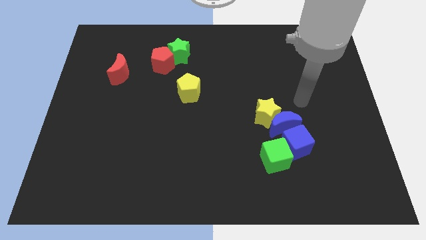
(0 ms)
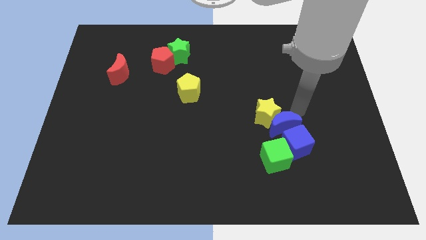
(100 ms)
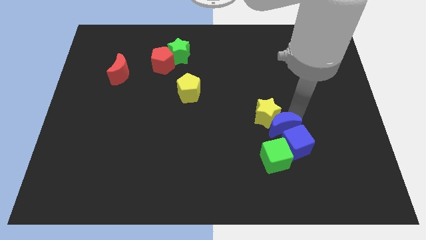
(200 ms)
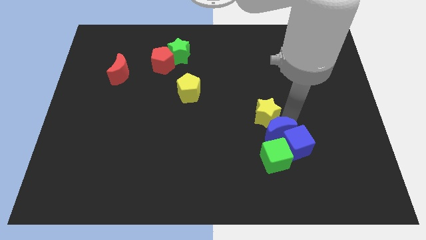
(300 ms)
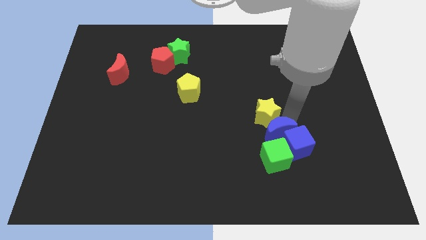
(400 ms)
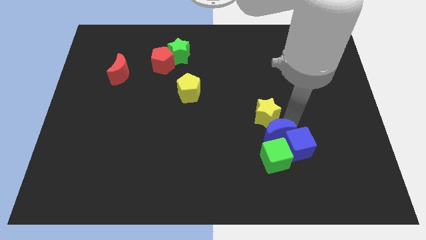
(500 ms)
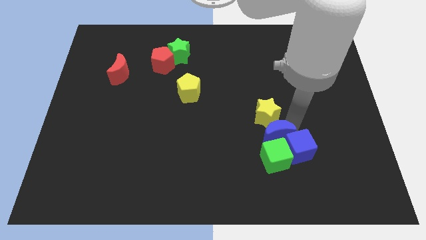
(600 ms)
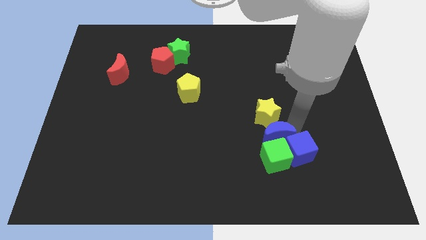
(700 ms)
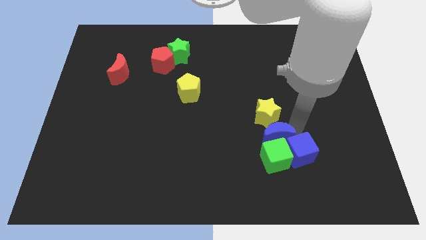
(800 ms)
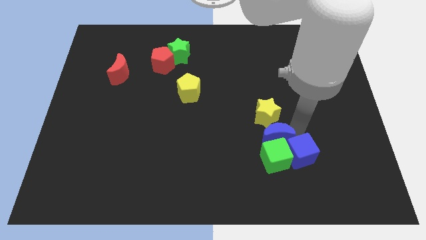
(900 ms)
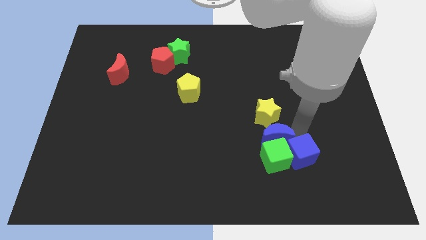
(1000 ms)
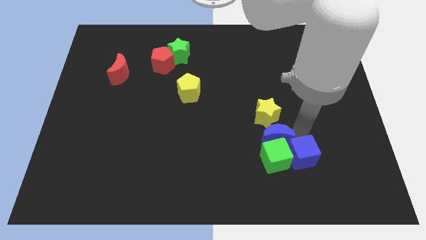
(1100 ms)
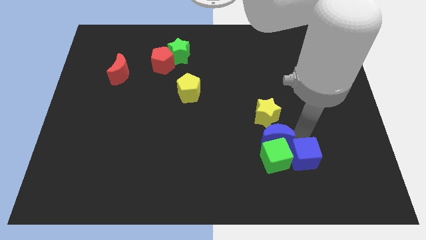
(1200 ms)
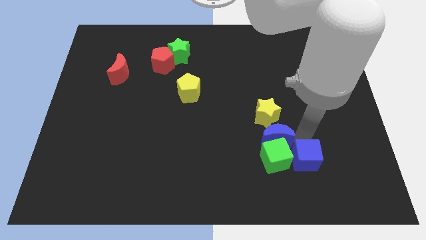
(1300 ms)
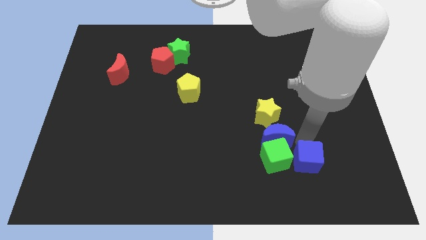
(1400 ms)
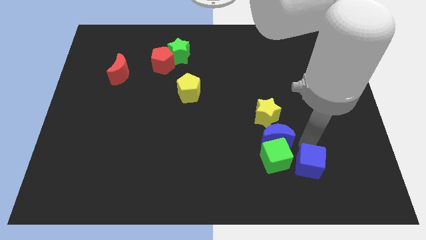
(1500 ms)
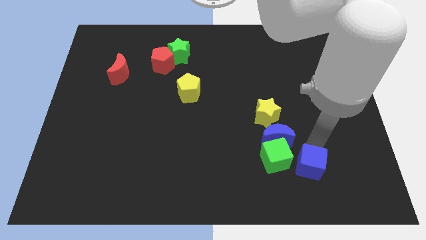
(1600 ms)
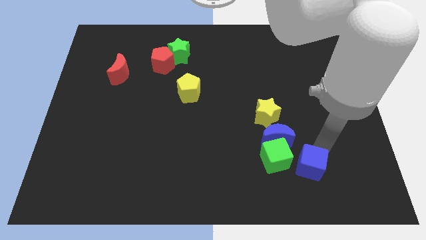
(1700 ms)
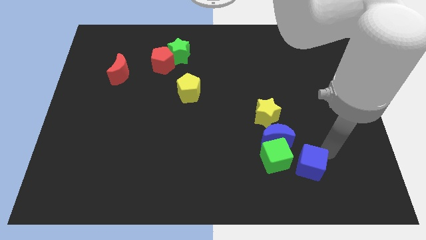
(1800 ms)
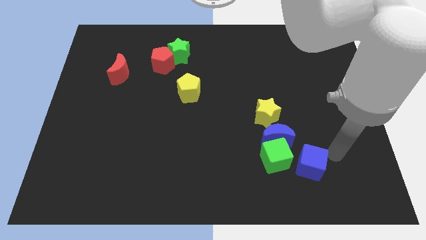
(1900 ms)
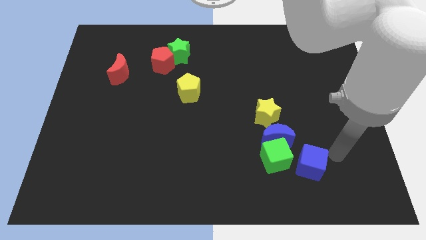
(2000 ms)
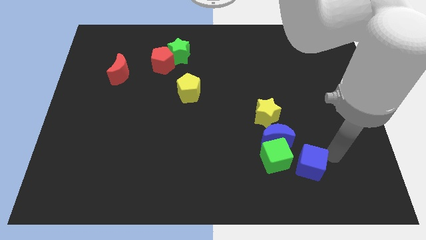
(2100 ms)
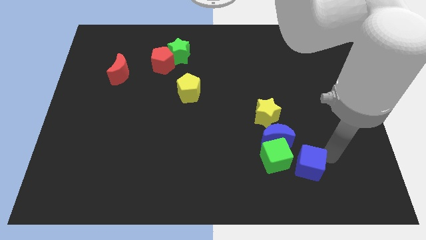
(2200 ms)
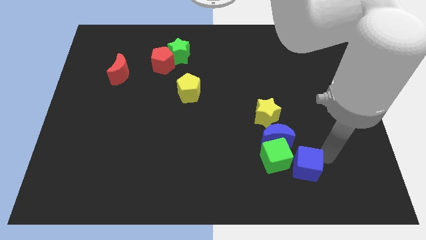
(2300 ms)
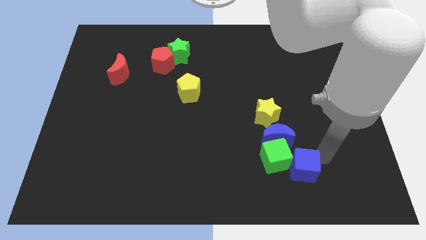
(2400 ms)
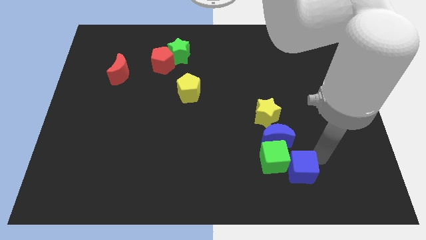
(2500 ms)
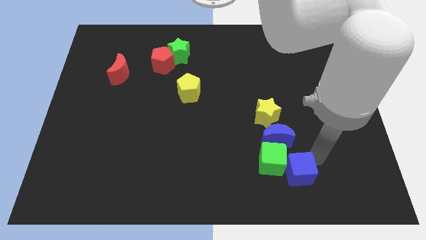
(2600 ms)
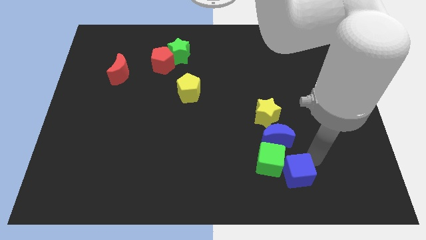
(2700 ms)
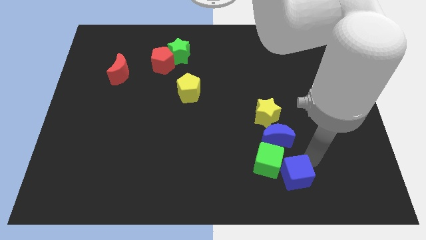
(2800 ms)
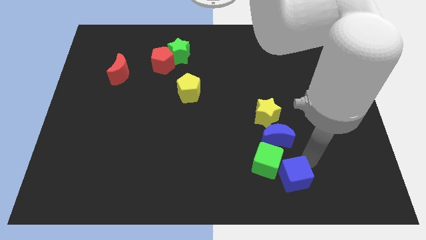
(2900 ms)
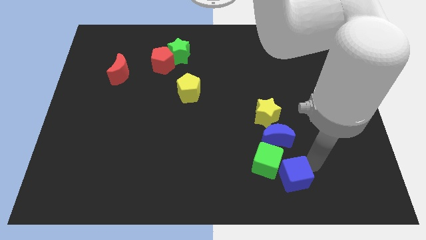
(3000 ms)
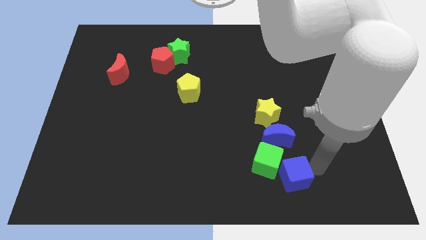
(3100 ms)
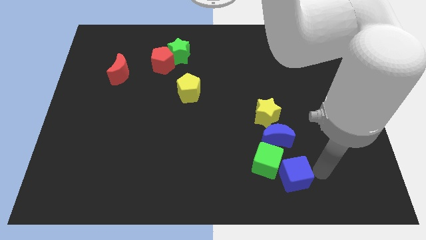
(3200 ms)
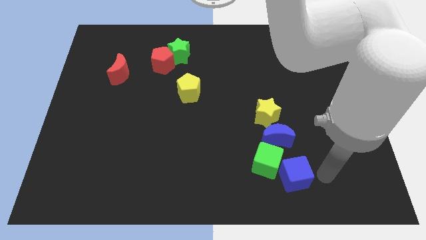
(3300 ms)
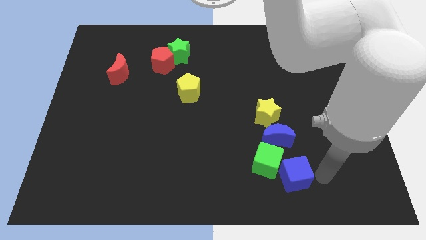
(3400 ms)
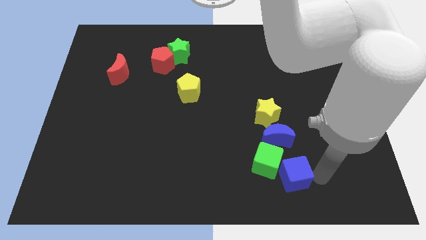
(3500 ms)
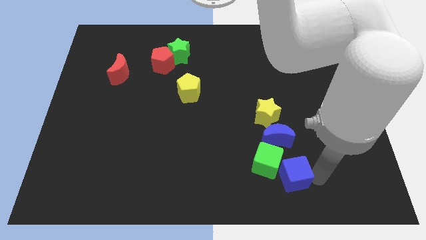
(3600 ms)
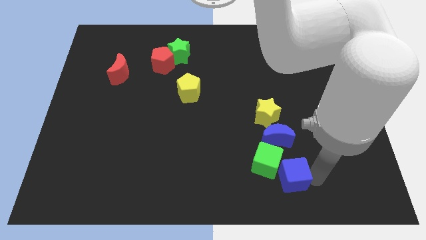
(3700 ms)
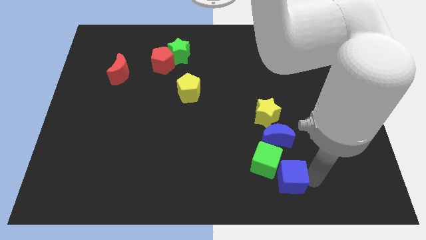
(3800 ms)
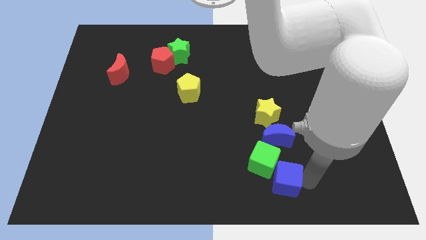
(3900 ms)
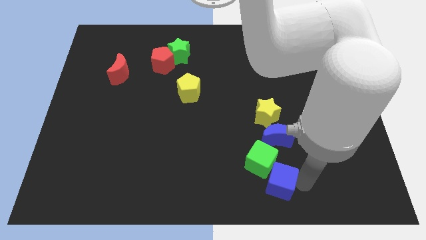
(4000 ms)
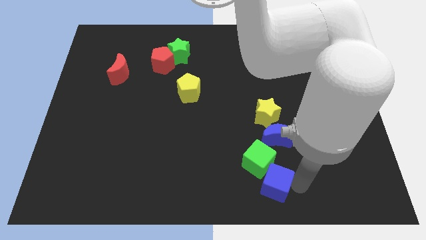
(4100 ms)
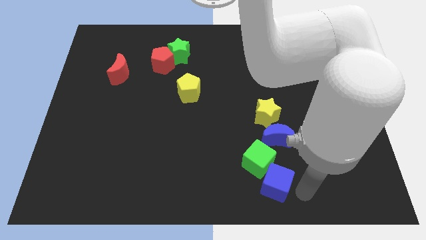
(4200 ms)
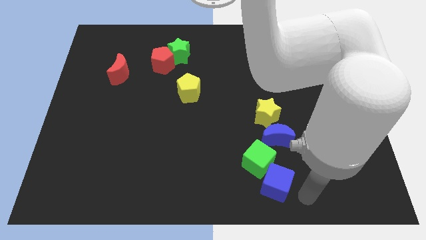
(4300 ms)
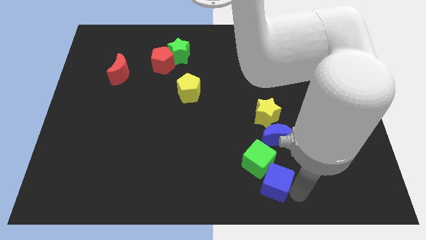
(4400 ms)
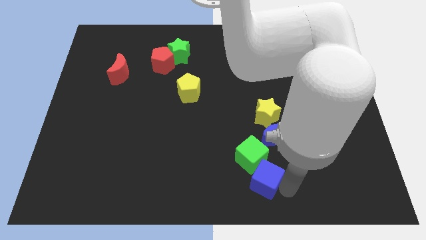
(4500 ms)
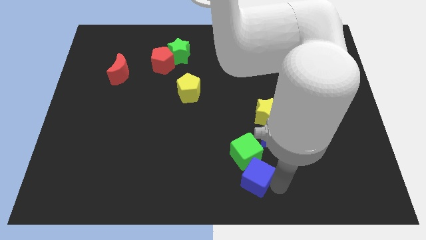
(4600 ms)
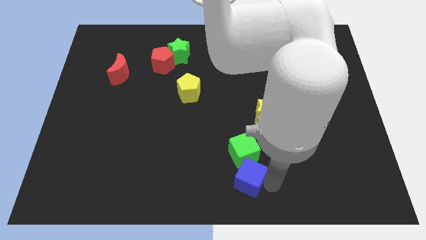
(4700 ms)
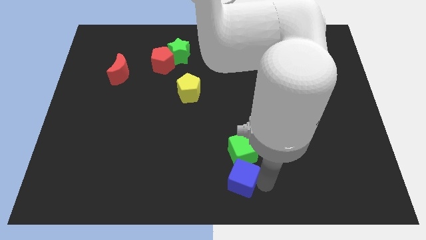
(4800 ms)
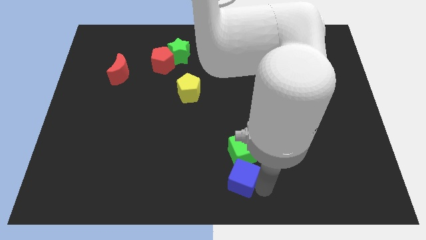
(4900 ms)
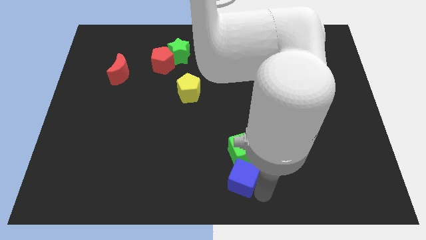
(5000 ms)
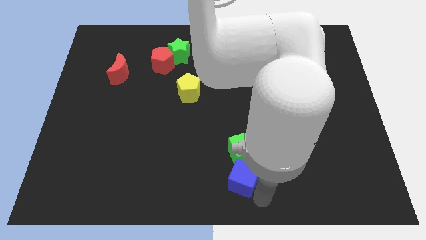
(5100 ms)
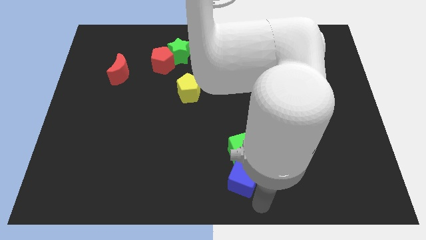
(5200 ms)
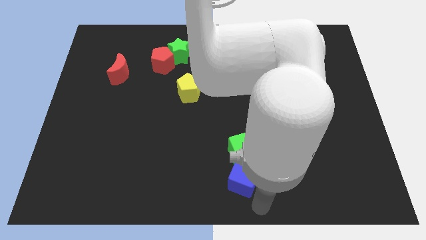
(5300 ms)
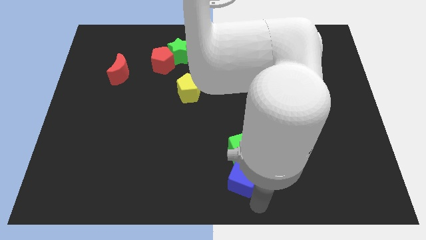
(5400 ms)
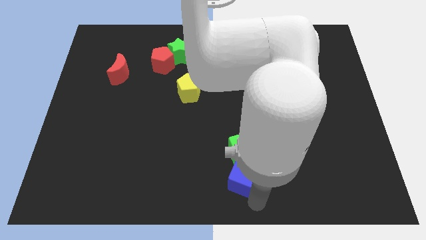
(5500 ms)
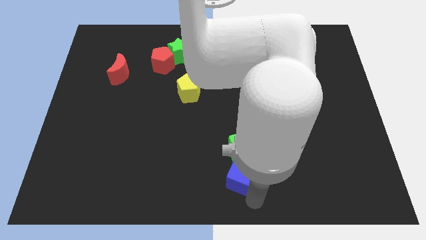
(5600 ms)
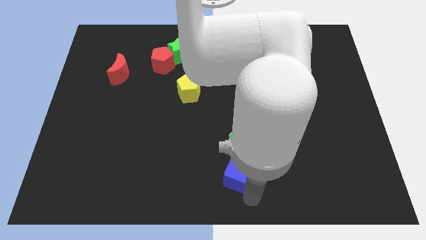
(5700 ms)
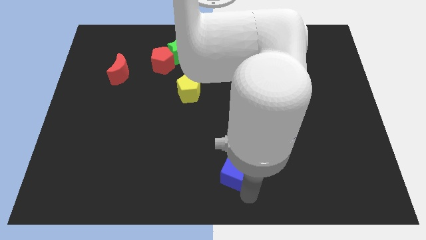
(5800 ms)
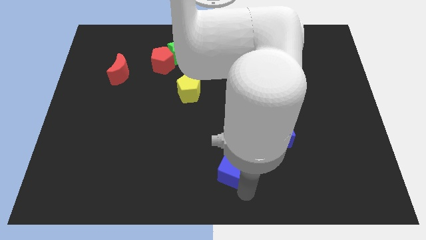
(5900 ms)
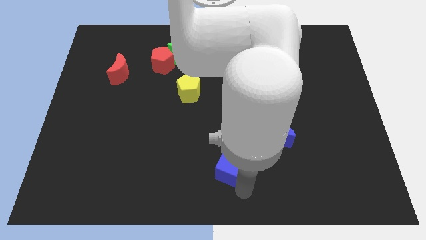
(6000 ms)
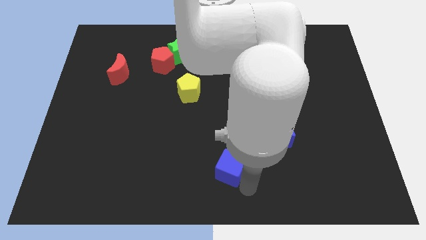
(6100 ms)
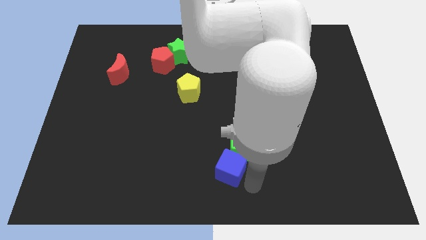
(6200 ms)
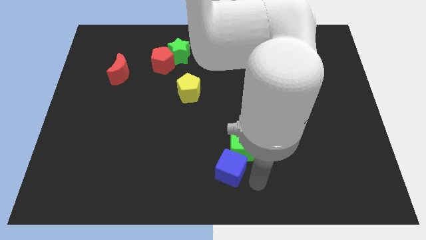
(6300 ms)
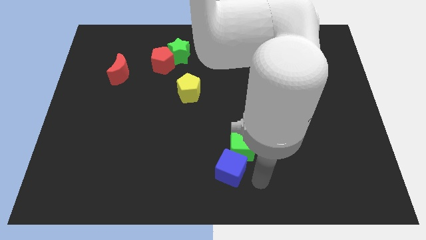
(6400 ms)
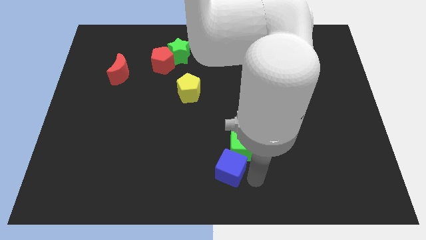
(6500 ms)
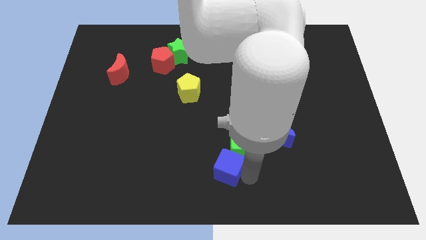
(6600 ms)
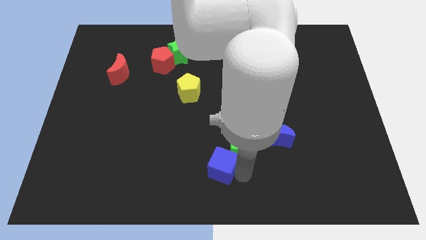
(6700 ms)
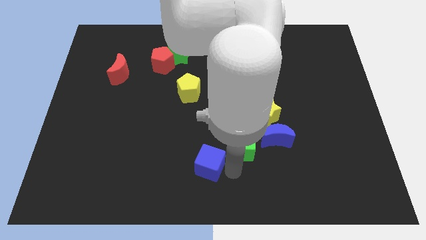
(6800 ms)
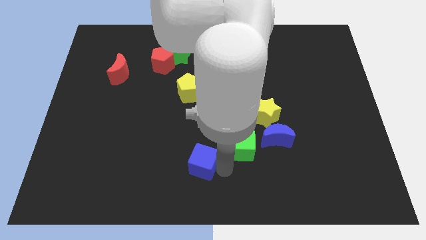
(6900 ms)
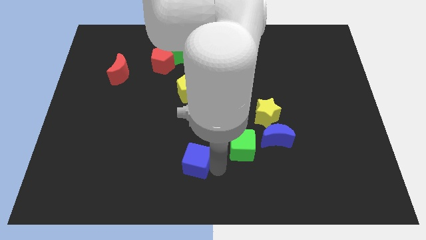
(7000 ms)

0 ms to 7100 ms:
push the blue cube to the left

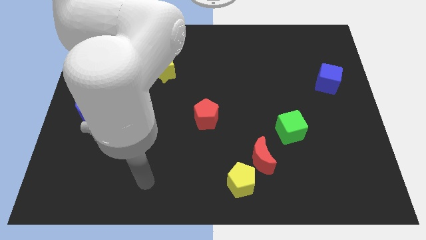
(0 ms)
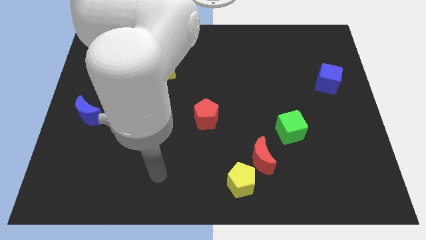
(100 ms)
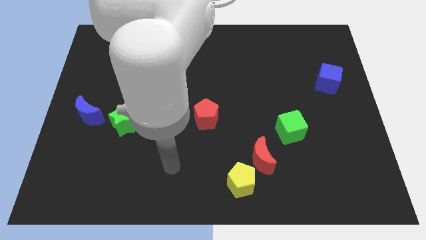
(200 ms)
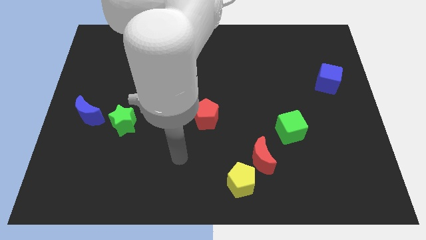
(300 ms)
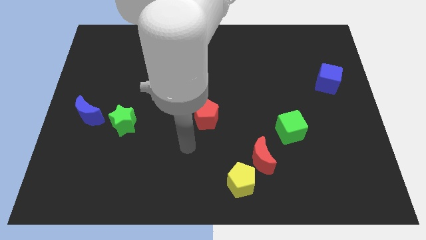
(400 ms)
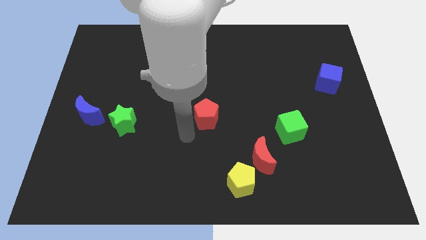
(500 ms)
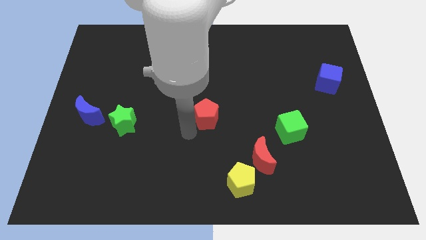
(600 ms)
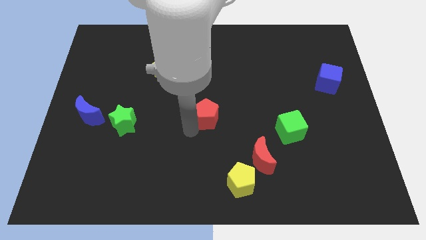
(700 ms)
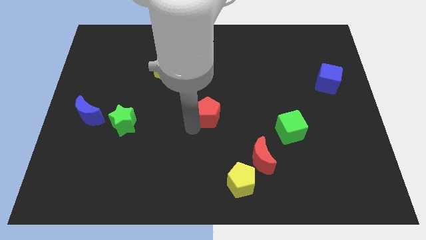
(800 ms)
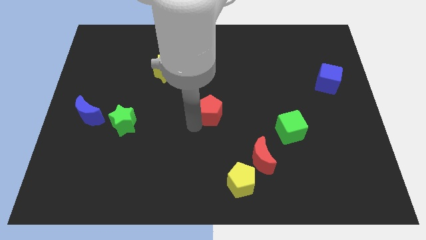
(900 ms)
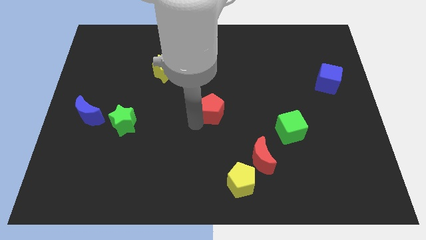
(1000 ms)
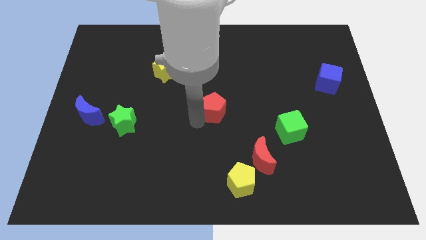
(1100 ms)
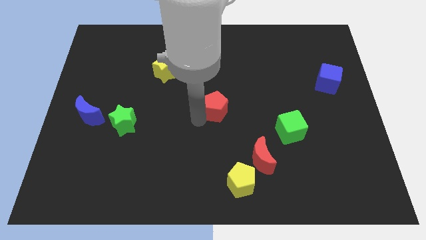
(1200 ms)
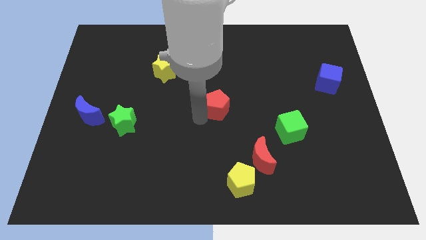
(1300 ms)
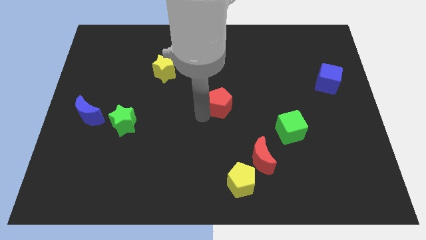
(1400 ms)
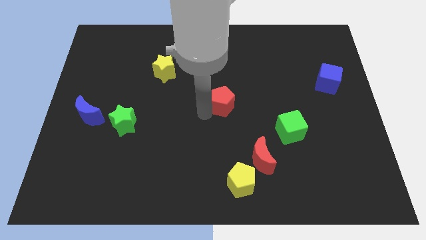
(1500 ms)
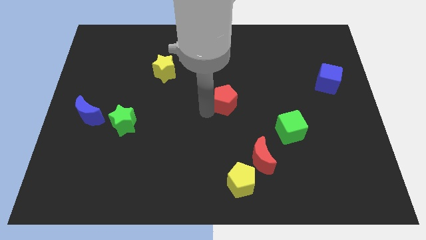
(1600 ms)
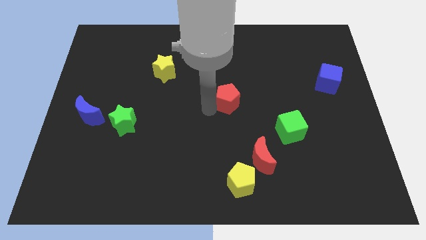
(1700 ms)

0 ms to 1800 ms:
slightly push the red pentagon diagonally up and to the right
